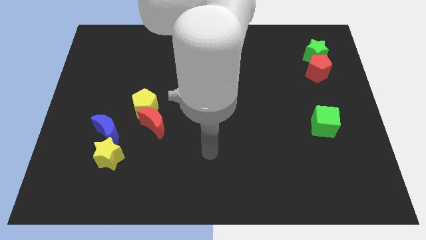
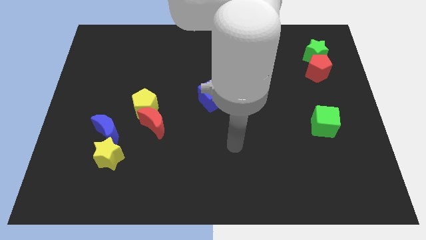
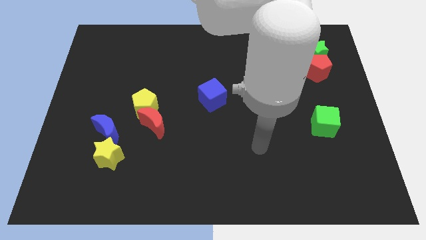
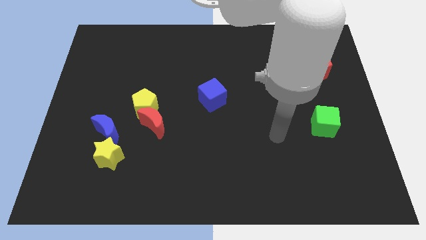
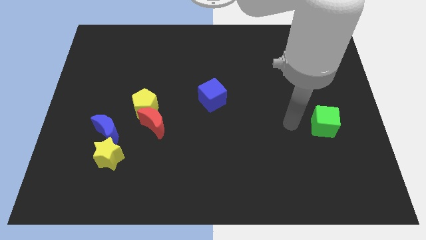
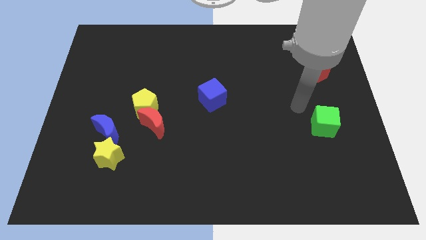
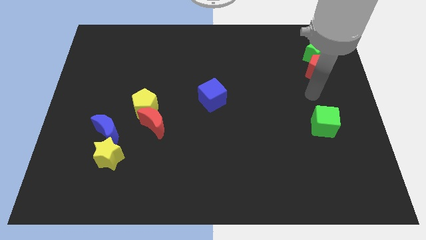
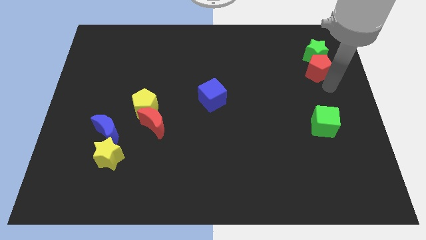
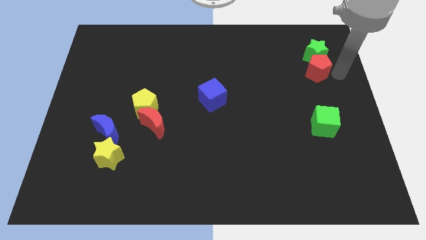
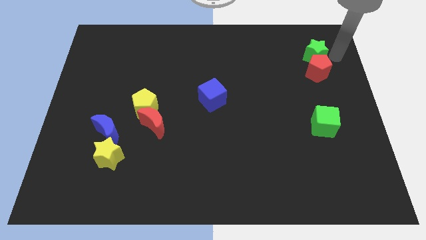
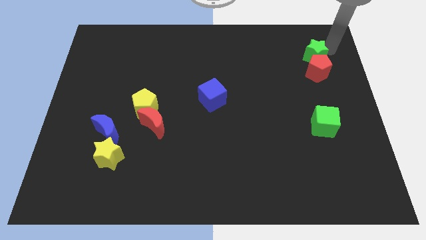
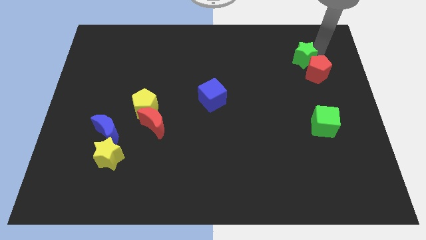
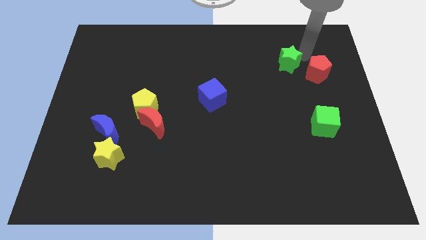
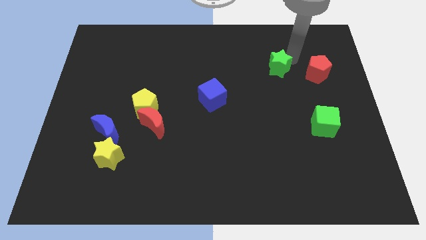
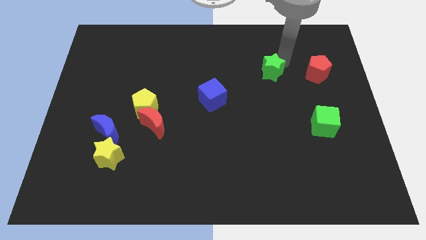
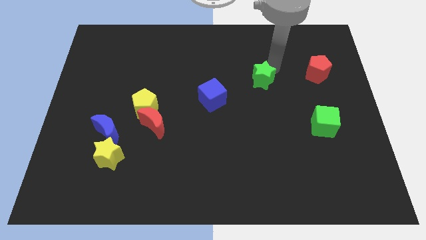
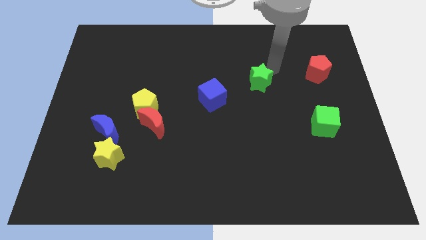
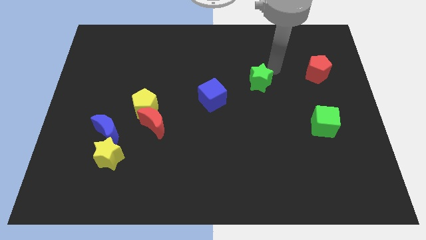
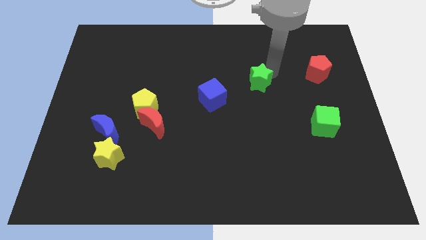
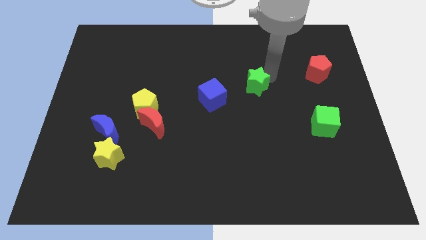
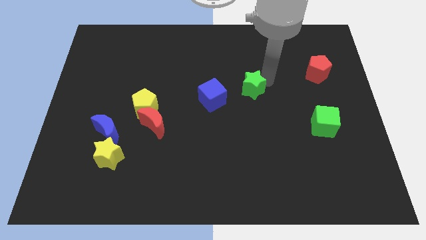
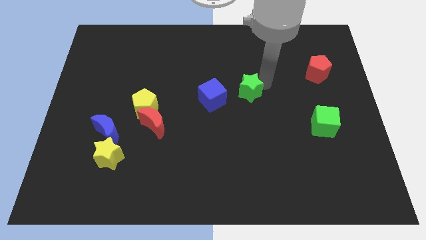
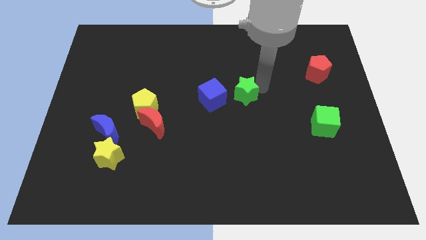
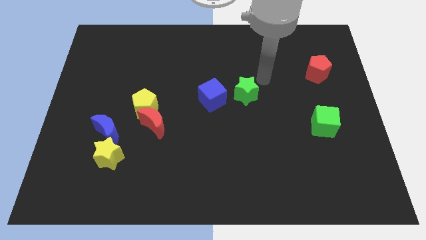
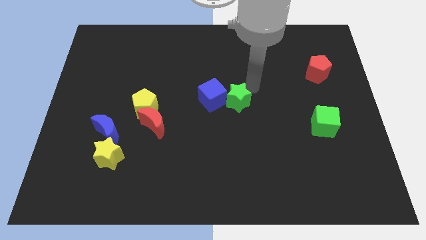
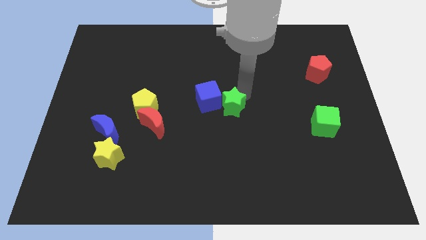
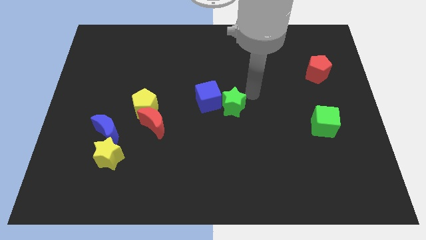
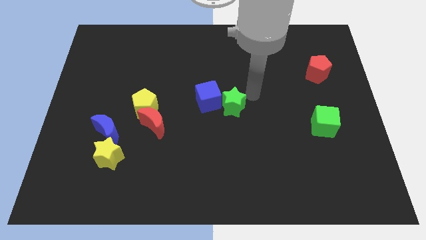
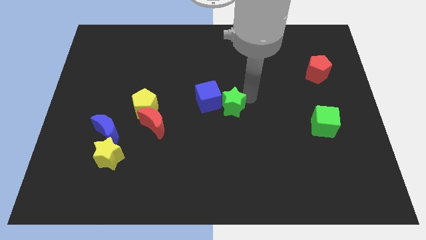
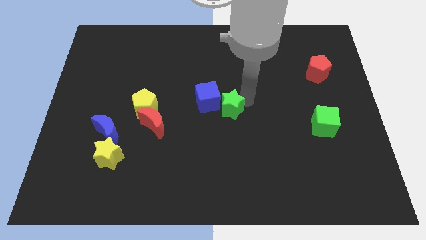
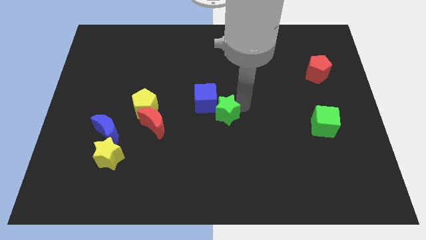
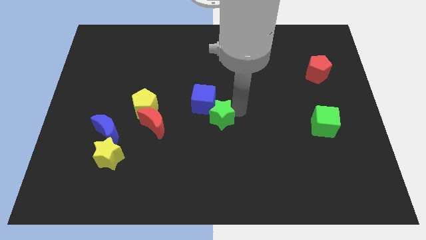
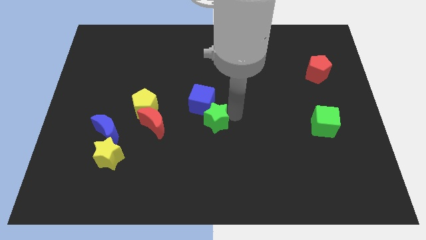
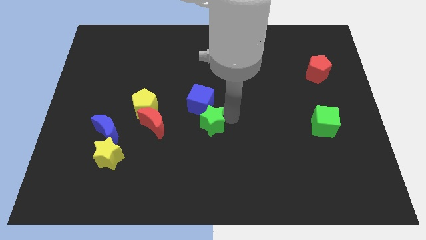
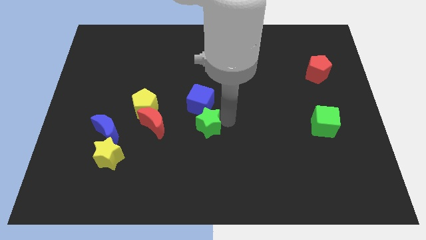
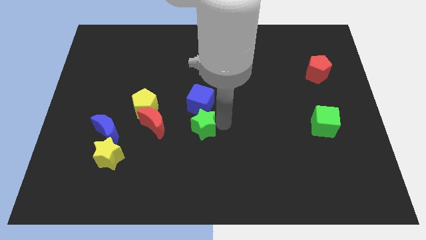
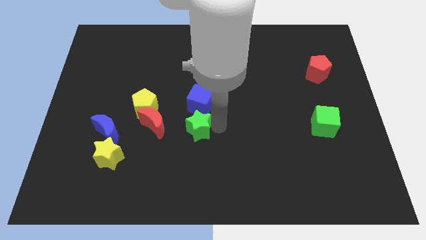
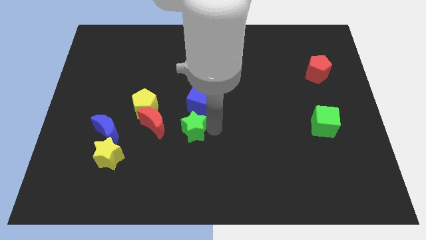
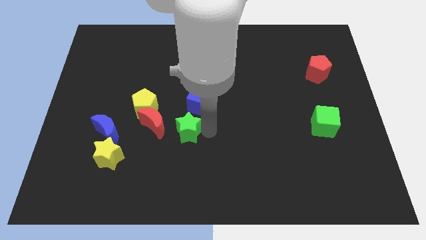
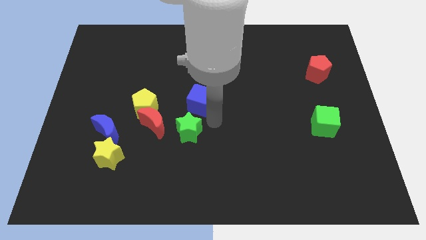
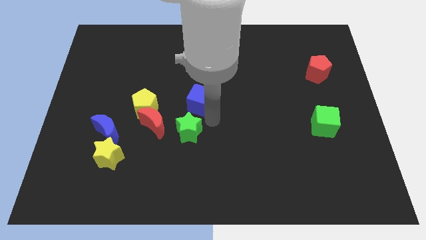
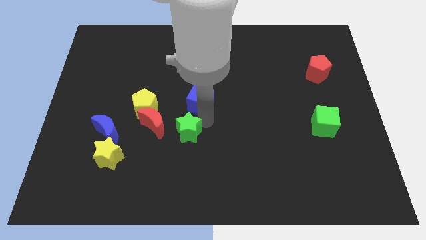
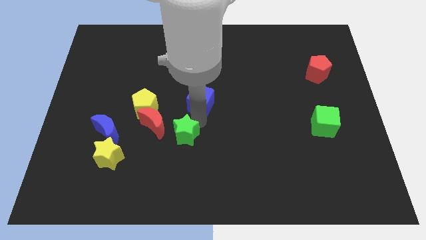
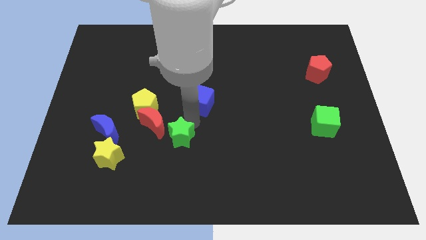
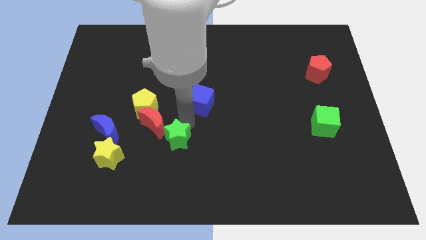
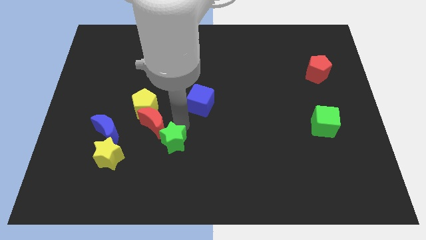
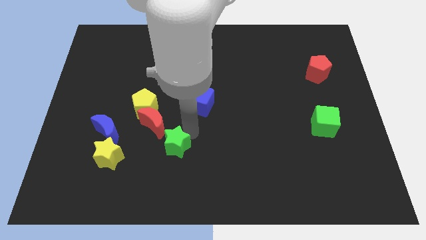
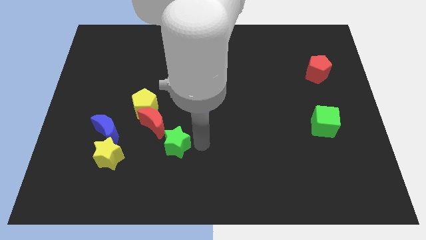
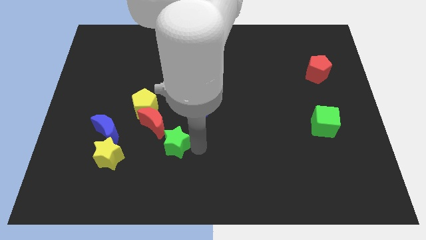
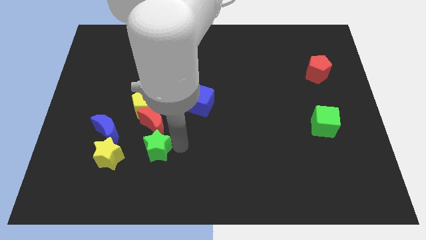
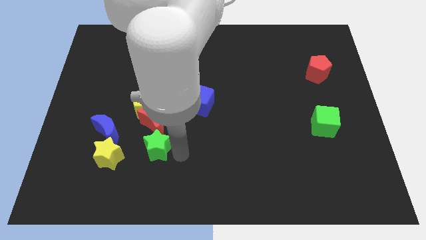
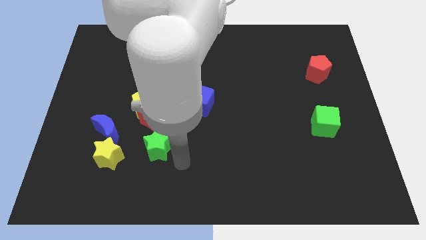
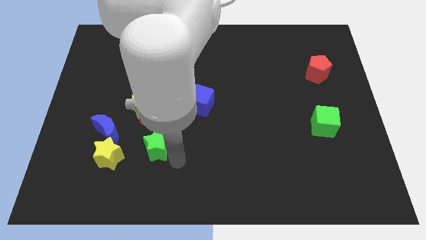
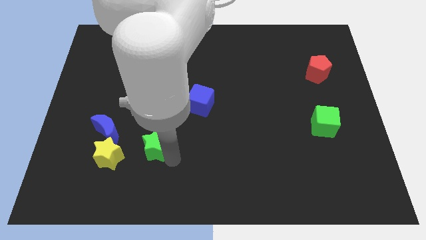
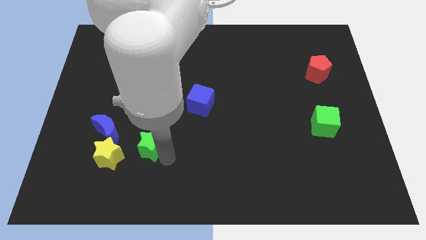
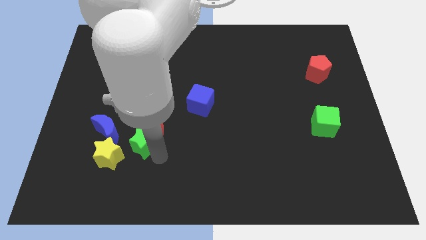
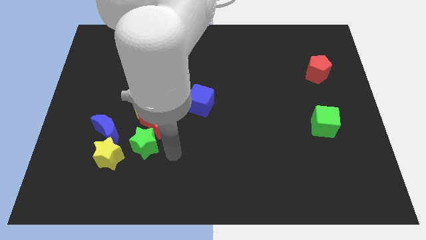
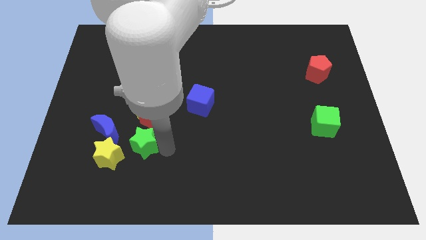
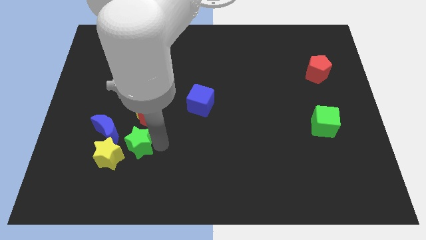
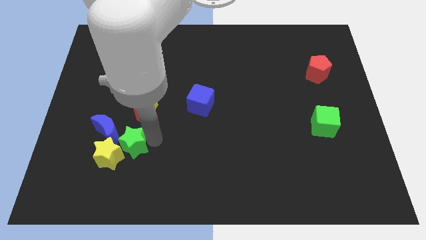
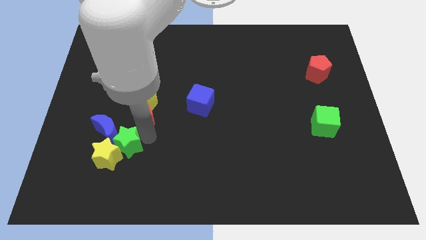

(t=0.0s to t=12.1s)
put the green star to the blue moon

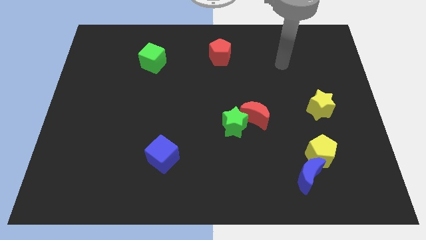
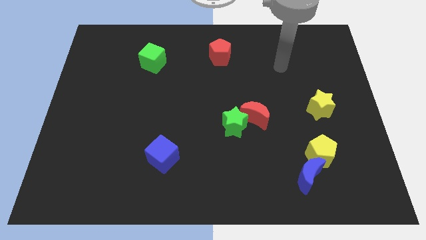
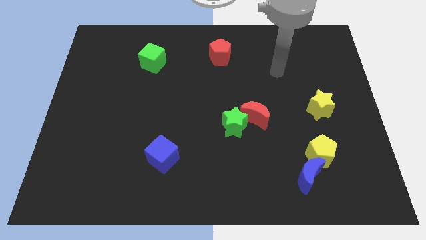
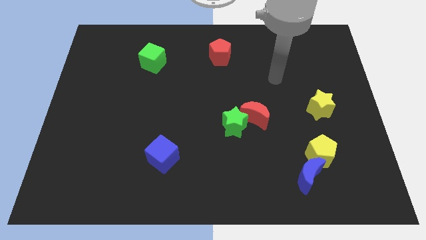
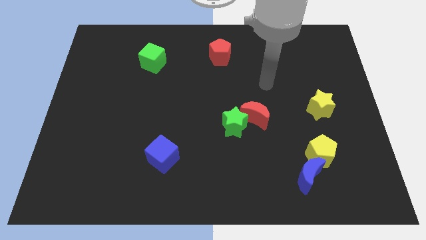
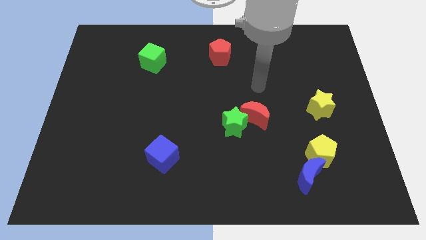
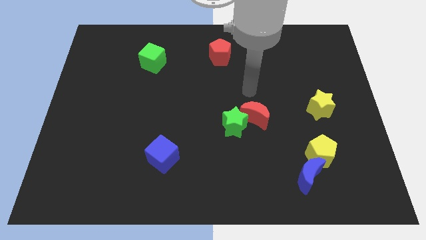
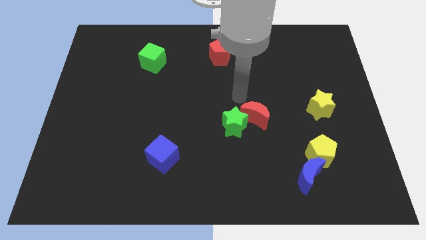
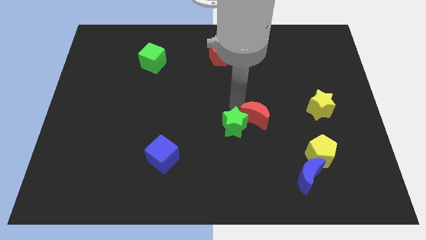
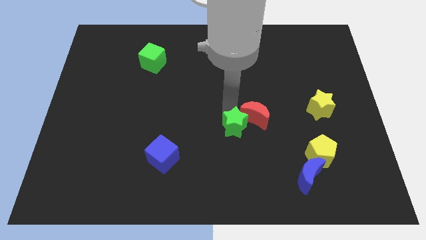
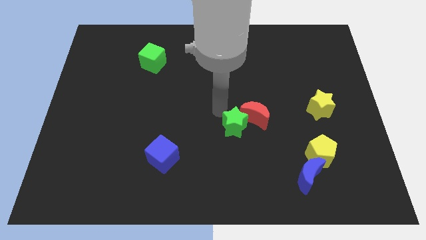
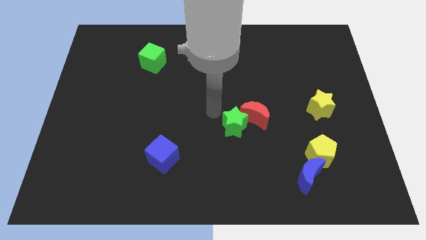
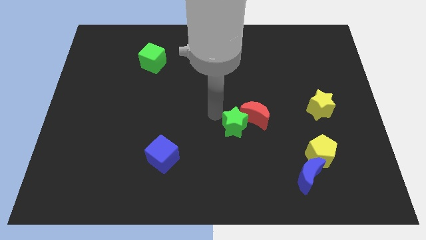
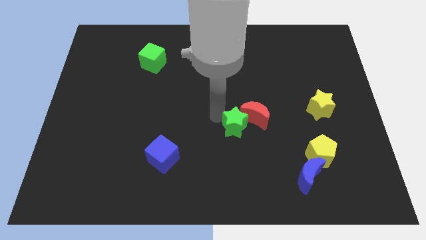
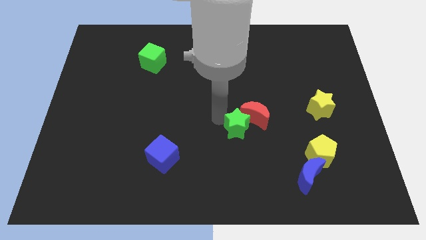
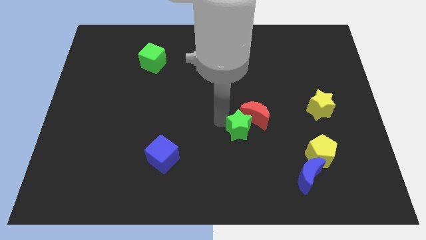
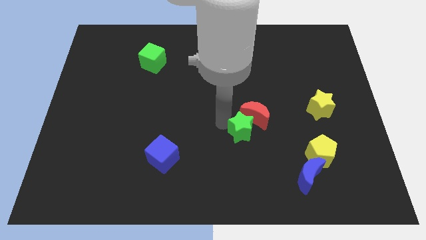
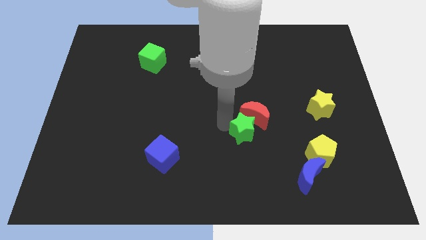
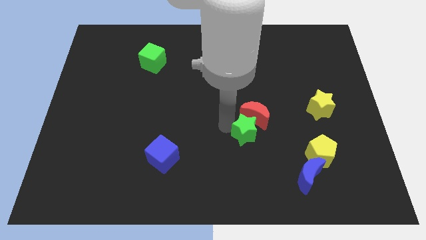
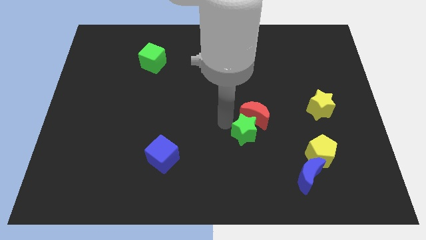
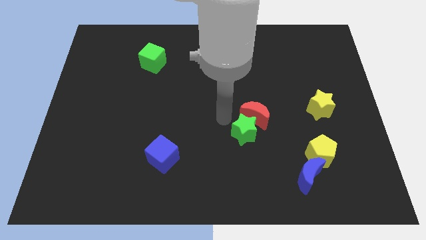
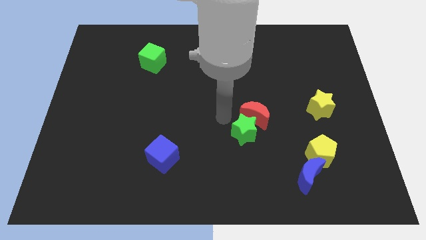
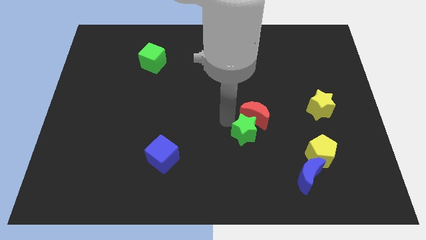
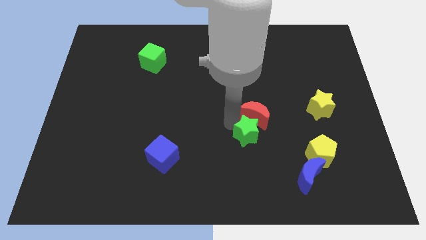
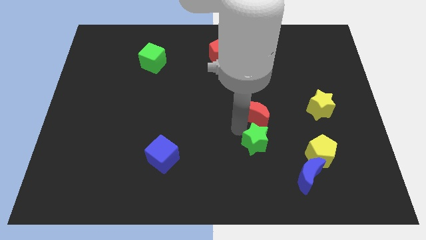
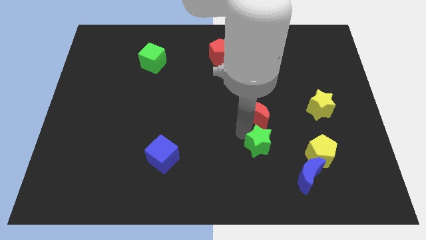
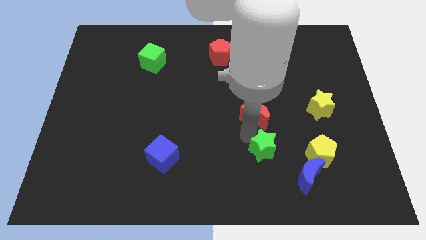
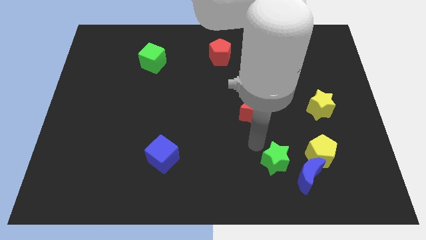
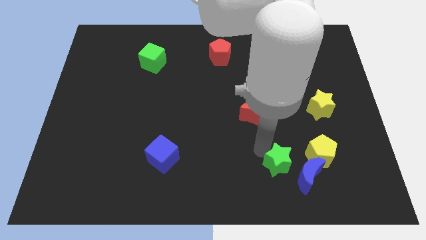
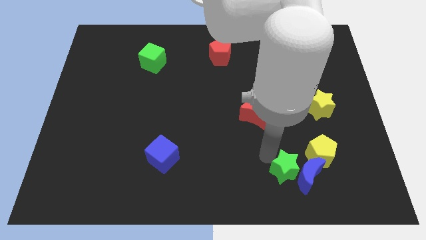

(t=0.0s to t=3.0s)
move the green star close to the blue moon
